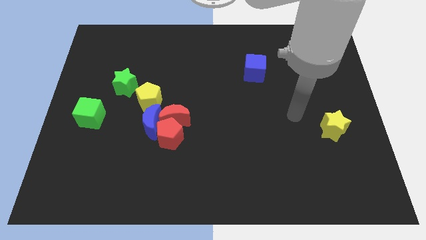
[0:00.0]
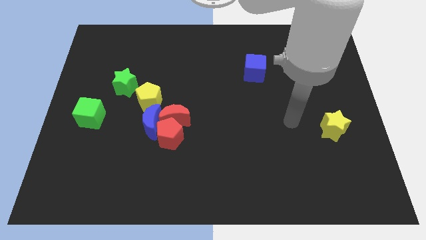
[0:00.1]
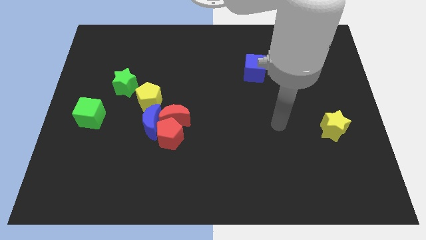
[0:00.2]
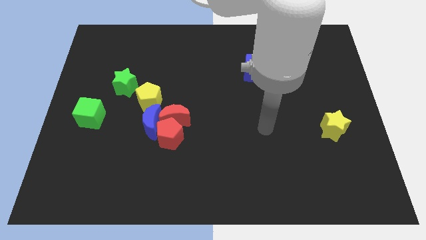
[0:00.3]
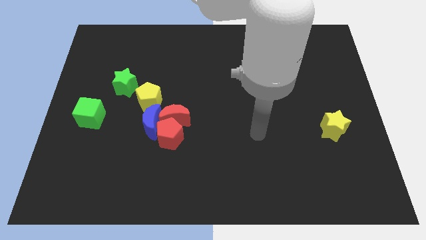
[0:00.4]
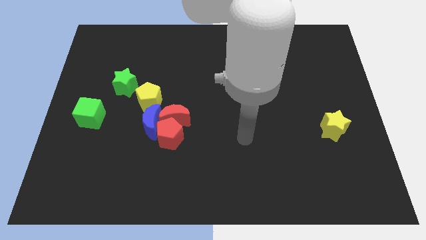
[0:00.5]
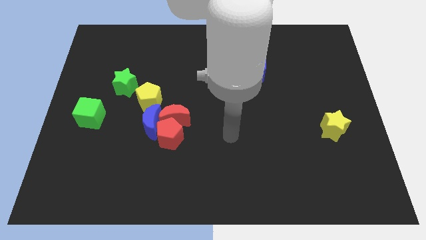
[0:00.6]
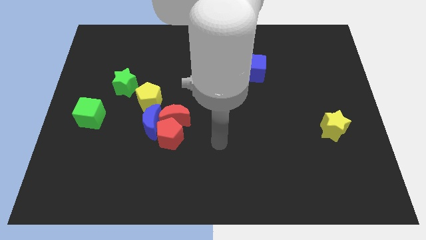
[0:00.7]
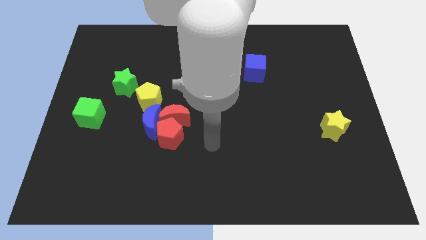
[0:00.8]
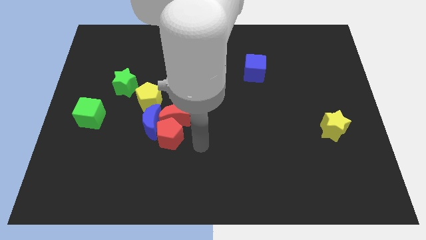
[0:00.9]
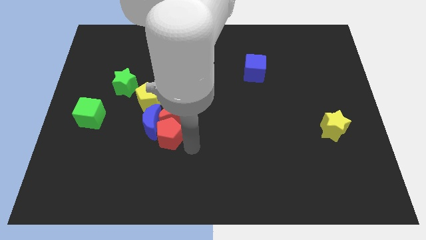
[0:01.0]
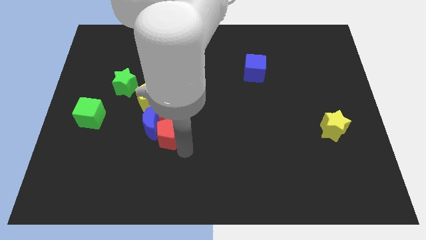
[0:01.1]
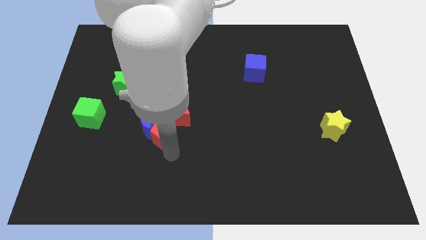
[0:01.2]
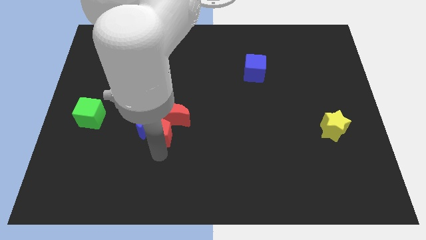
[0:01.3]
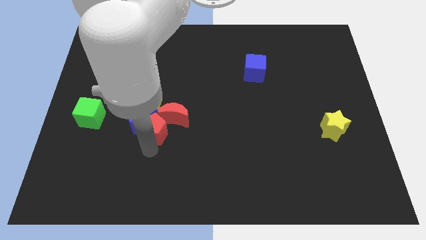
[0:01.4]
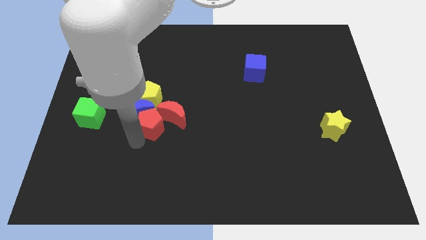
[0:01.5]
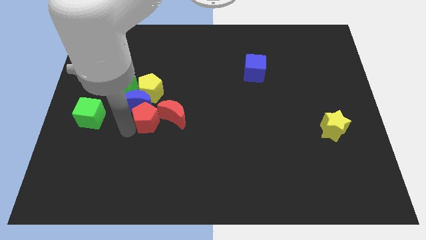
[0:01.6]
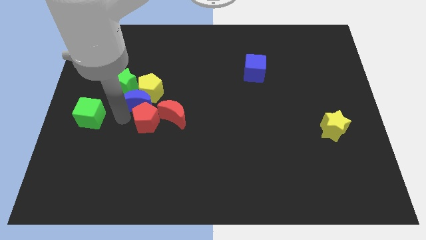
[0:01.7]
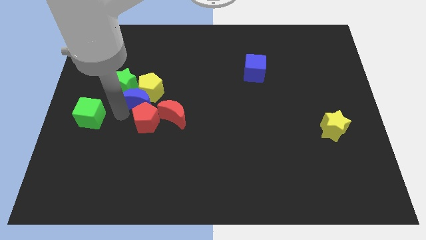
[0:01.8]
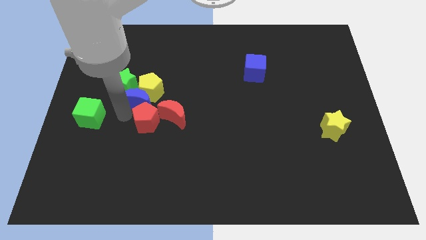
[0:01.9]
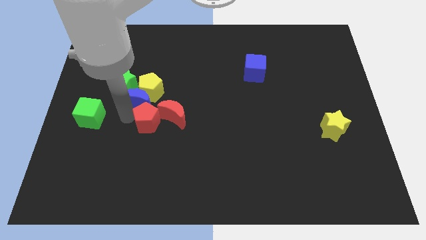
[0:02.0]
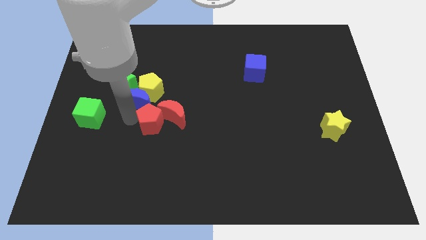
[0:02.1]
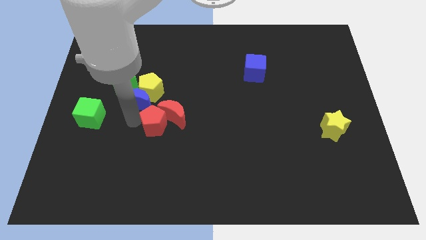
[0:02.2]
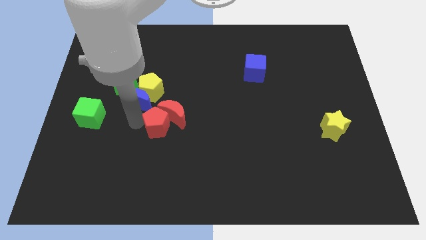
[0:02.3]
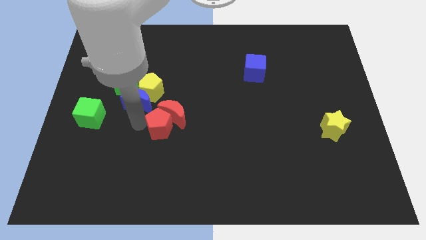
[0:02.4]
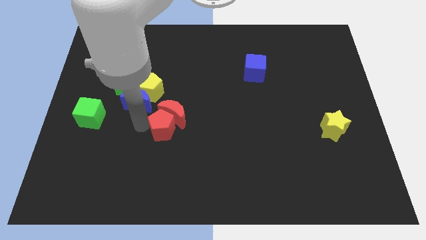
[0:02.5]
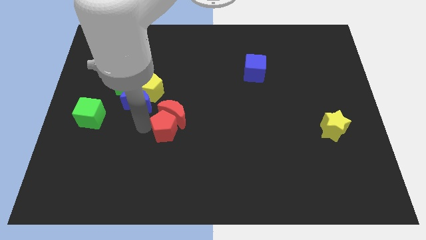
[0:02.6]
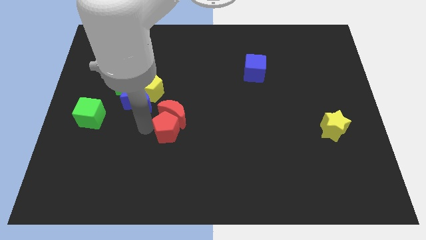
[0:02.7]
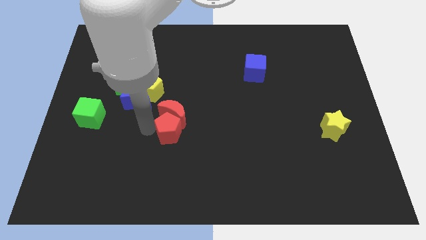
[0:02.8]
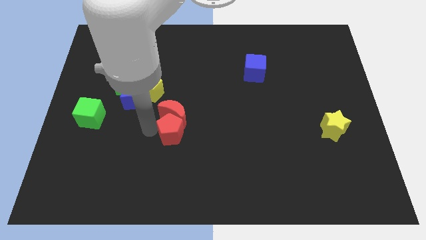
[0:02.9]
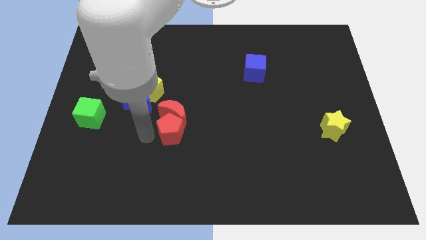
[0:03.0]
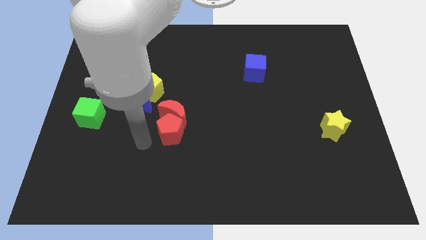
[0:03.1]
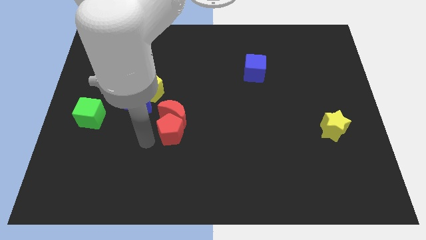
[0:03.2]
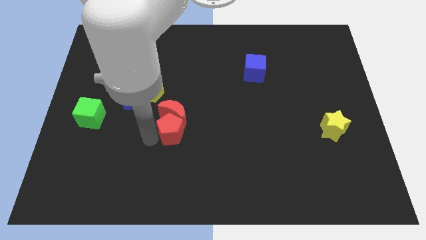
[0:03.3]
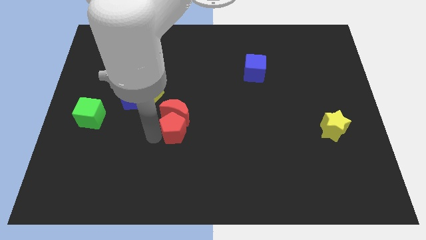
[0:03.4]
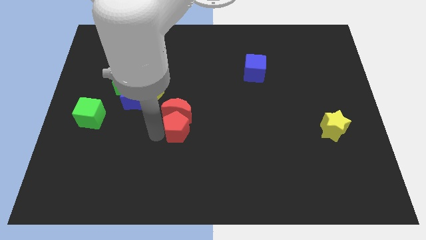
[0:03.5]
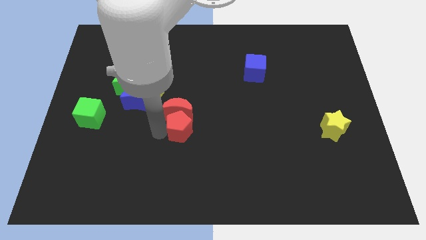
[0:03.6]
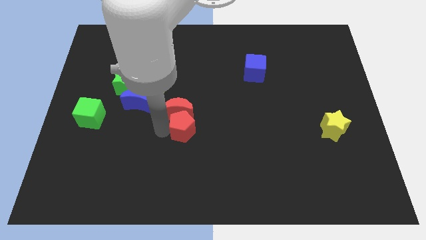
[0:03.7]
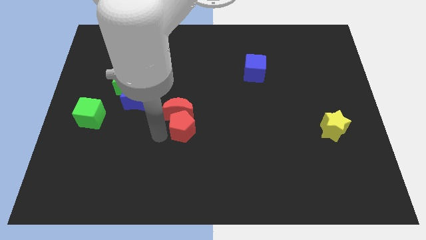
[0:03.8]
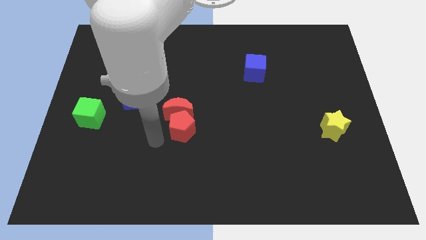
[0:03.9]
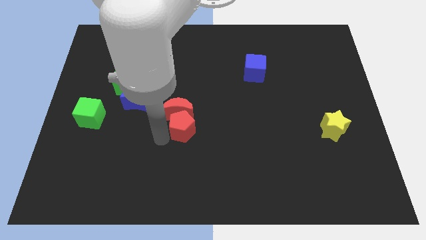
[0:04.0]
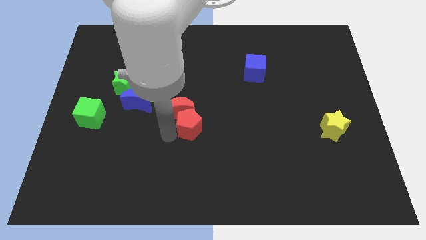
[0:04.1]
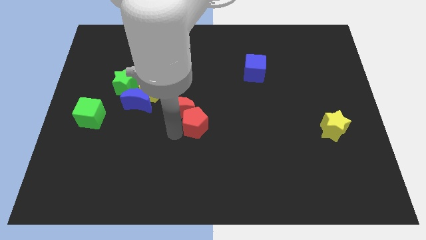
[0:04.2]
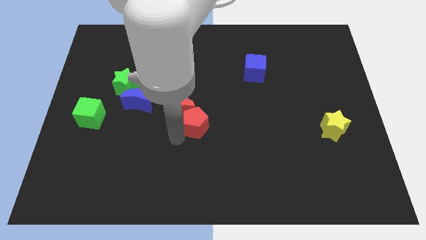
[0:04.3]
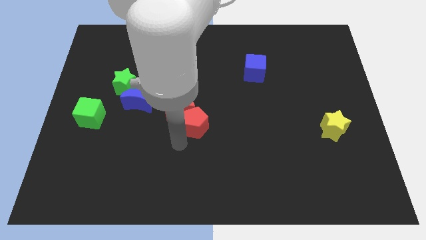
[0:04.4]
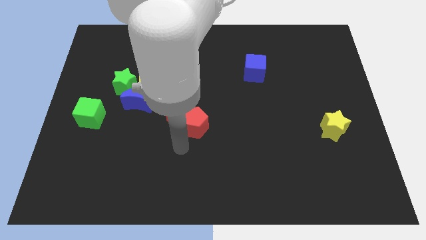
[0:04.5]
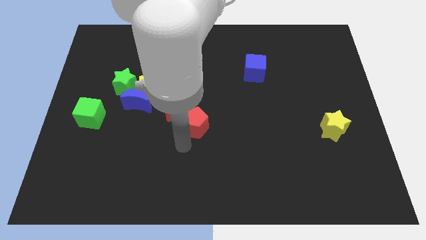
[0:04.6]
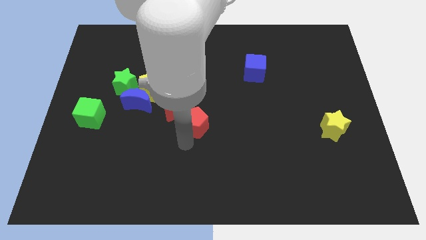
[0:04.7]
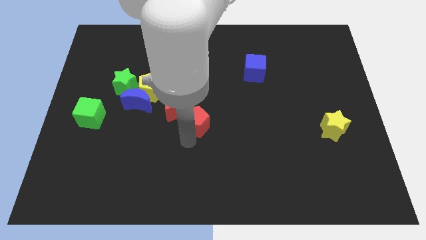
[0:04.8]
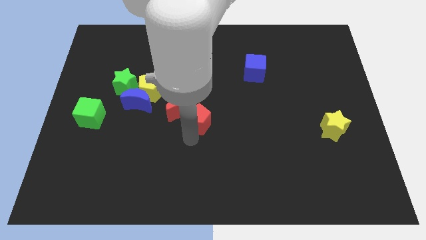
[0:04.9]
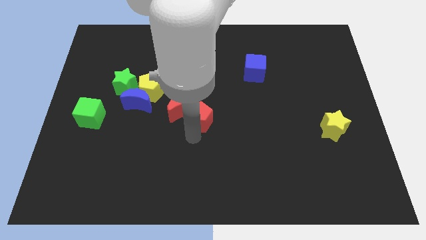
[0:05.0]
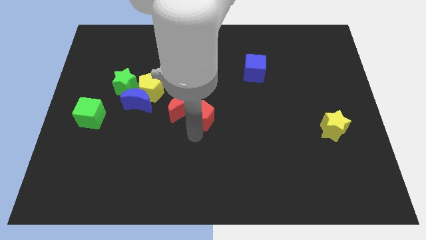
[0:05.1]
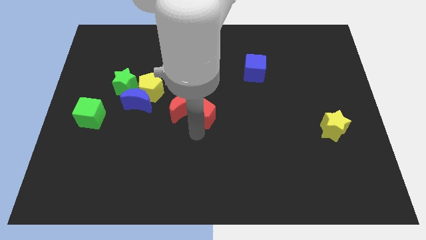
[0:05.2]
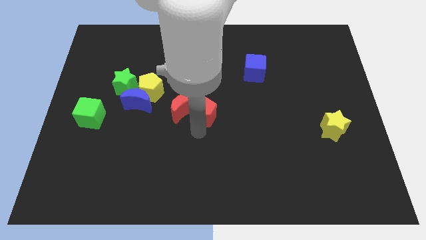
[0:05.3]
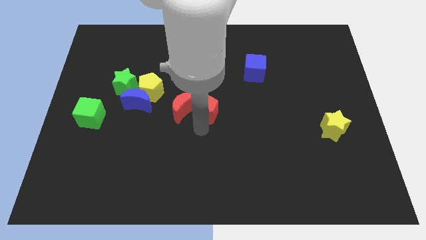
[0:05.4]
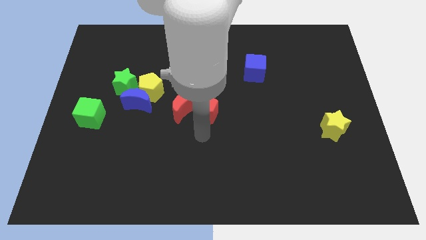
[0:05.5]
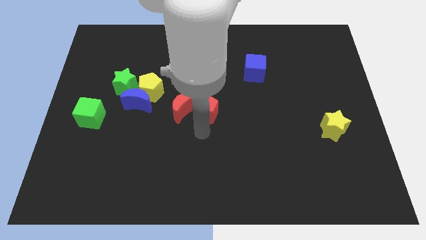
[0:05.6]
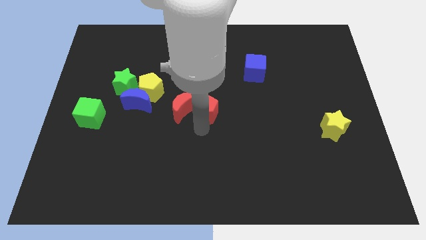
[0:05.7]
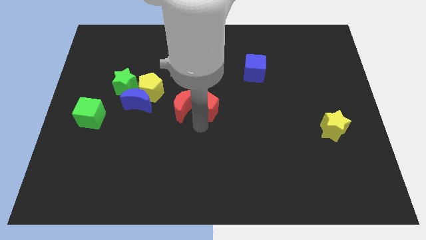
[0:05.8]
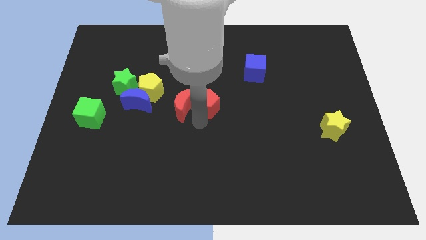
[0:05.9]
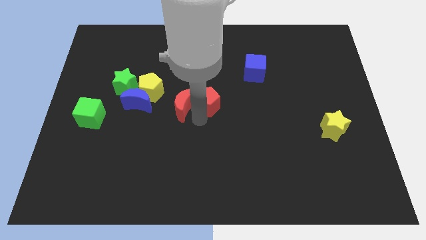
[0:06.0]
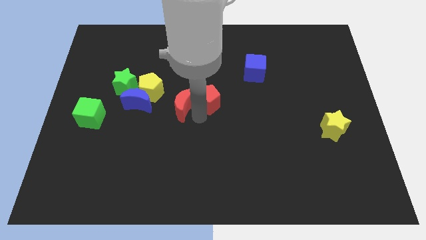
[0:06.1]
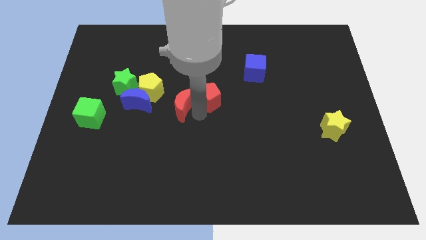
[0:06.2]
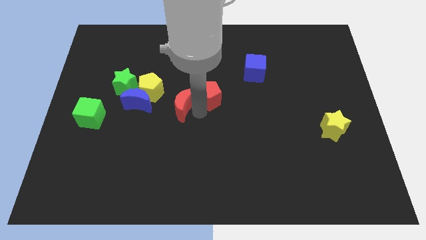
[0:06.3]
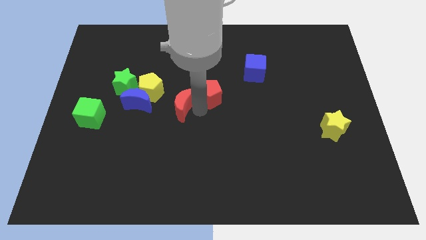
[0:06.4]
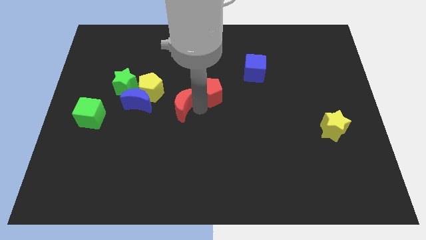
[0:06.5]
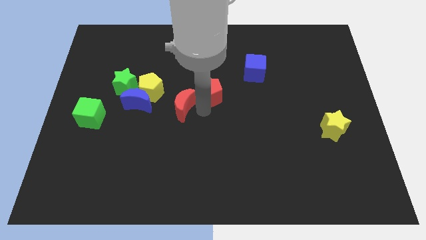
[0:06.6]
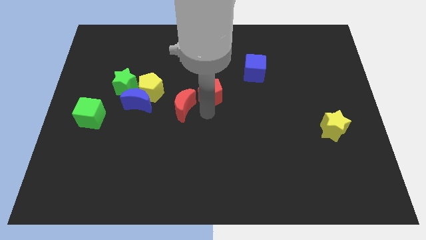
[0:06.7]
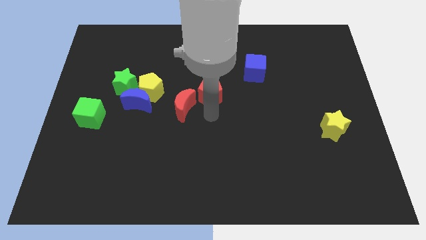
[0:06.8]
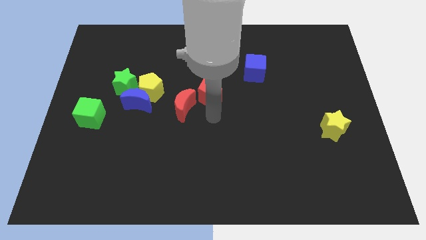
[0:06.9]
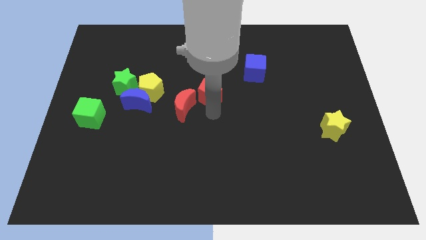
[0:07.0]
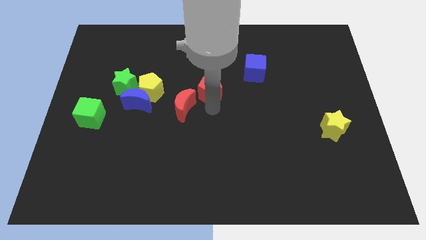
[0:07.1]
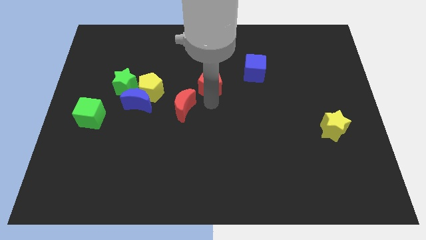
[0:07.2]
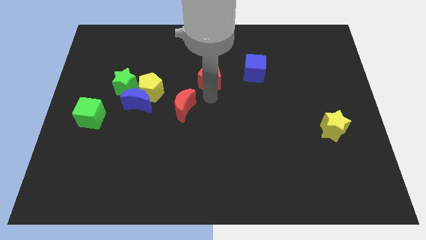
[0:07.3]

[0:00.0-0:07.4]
push the red pentagon to the left side of the blue cube
